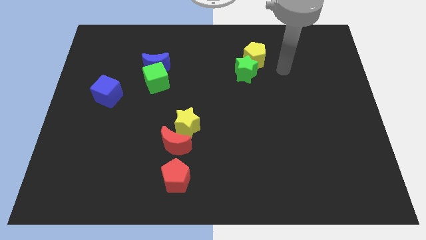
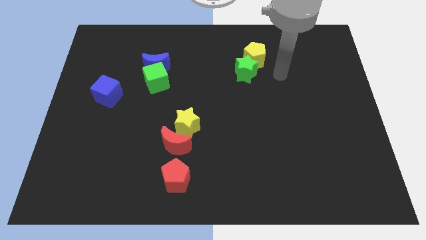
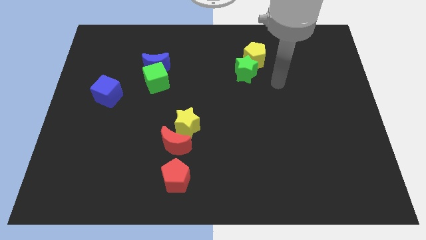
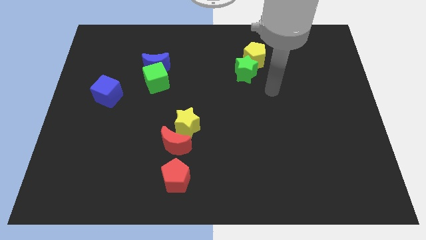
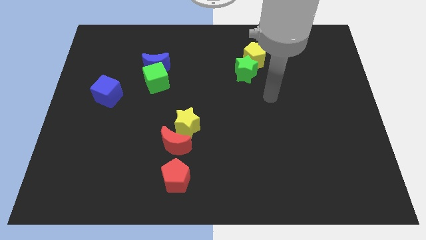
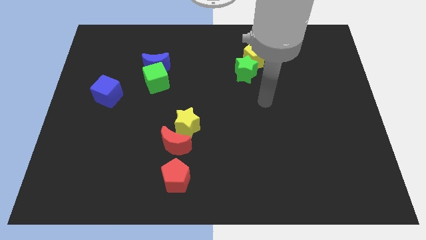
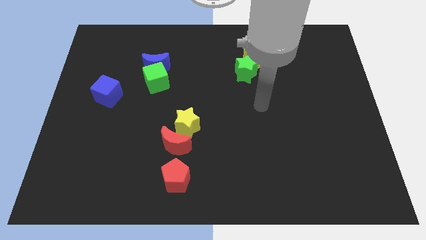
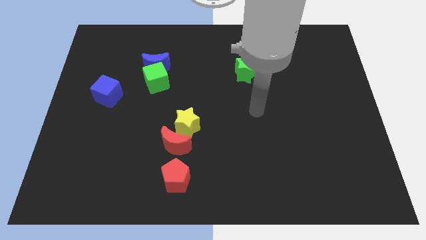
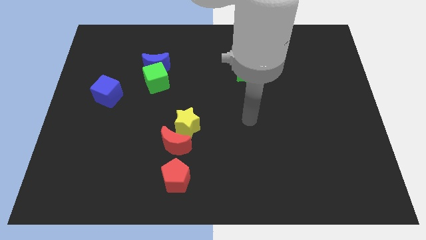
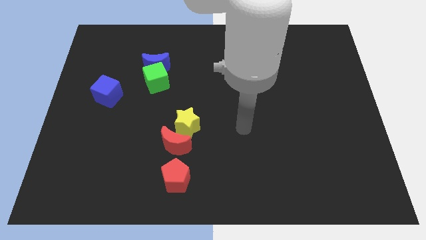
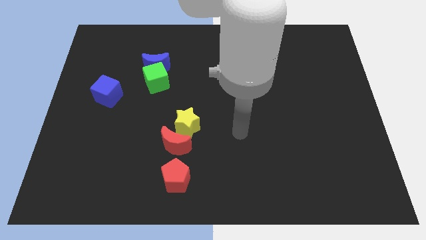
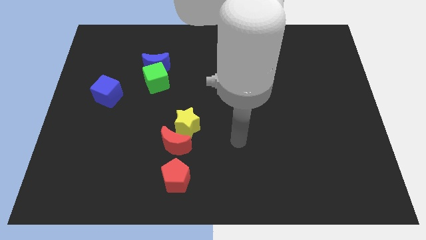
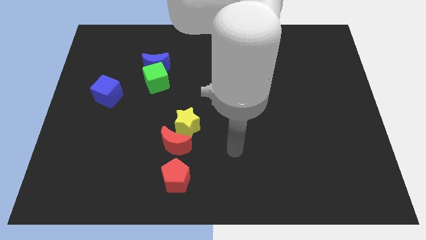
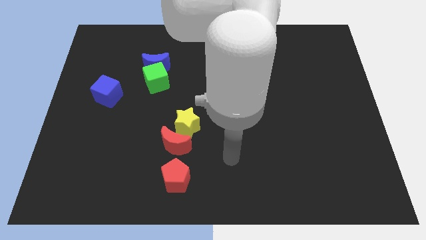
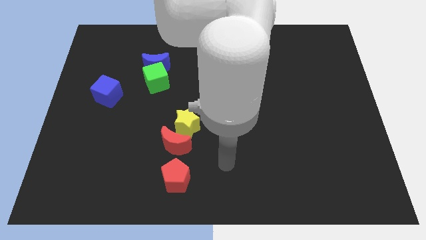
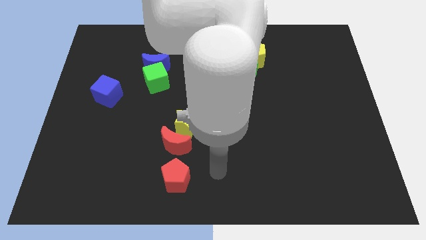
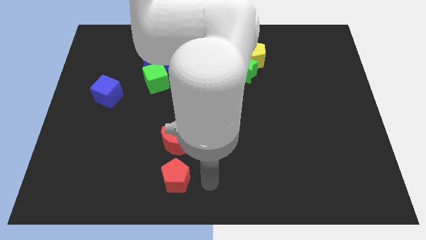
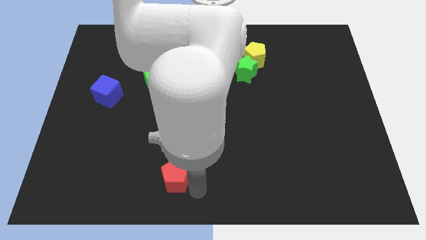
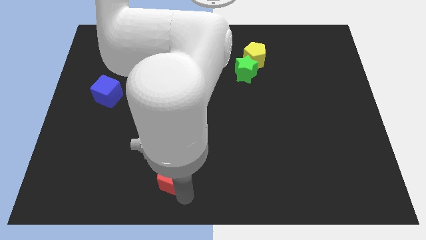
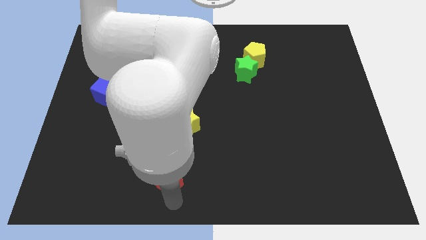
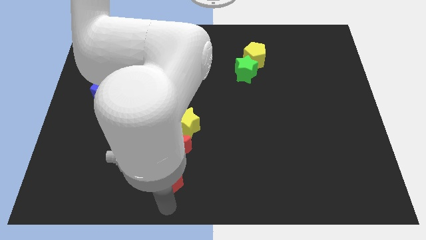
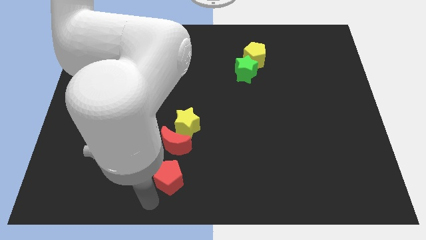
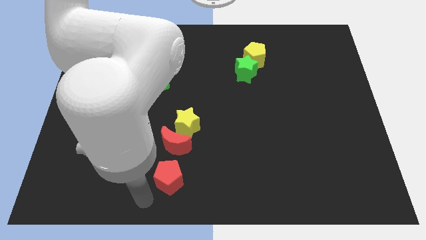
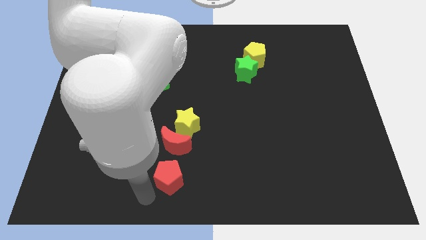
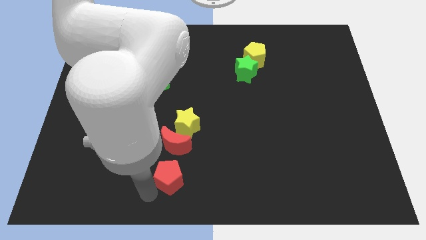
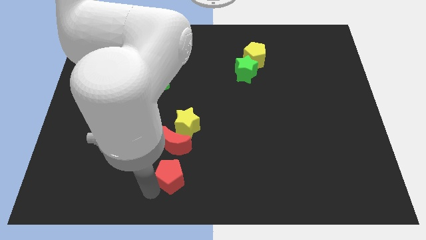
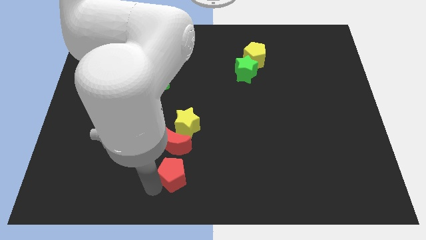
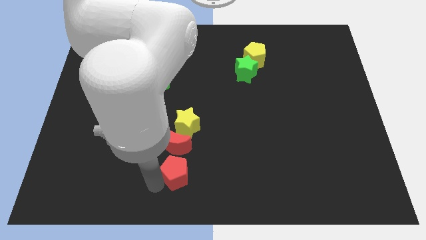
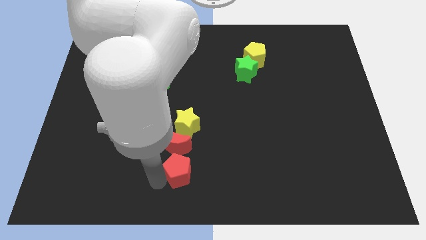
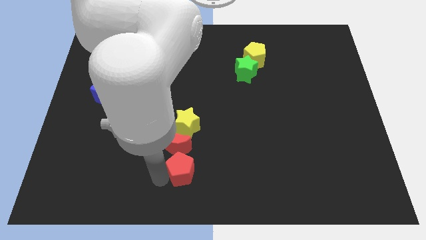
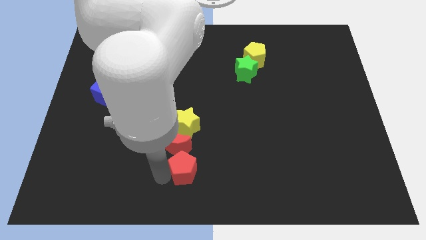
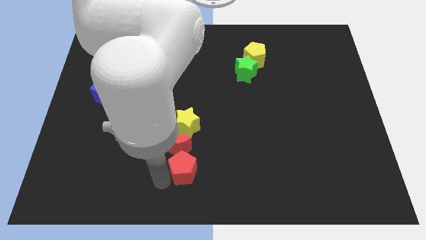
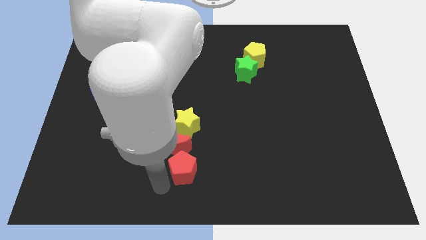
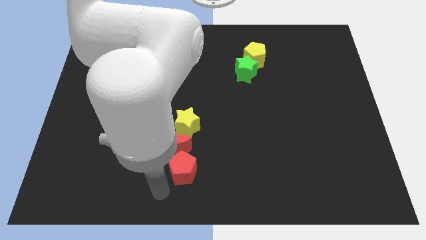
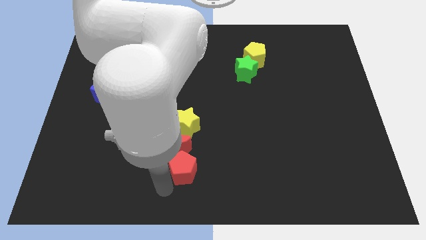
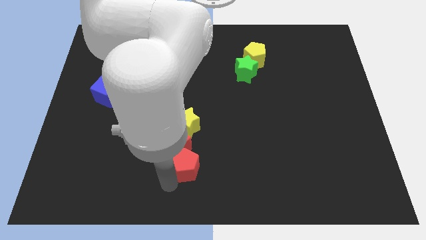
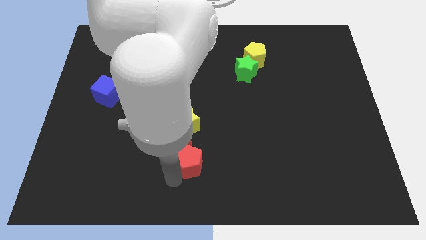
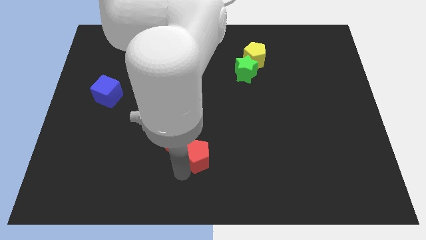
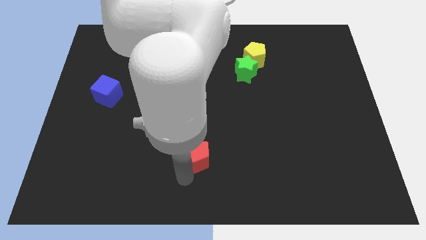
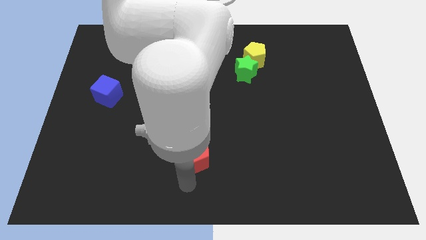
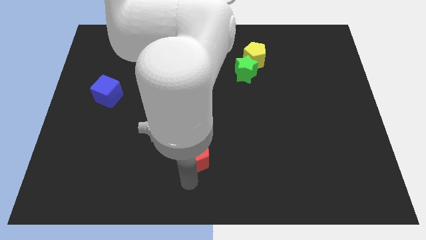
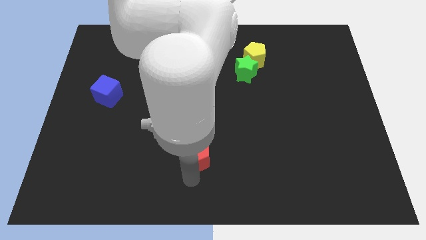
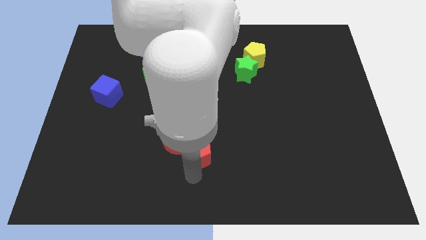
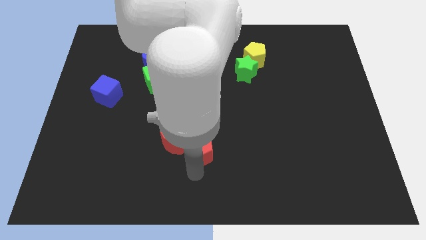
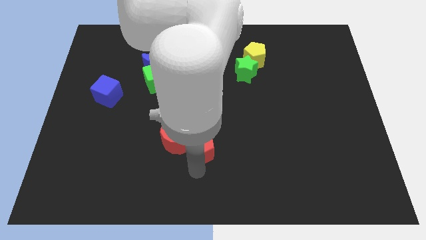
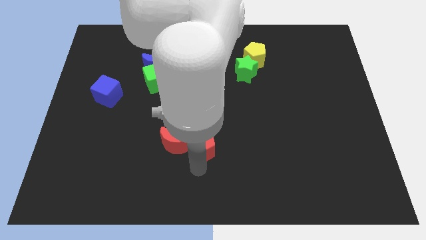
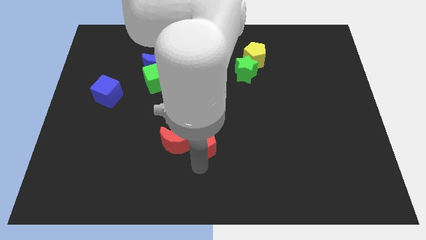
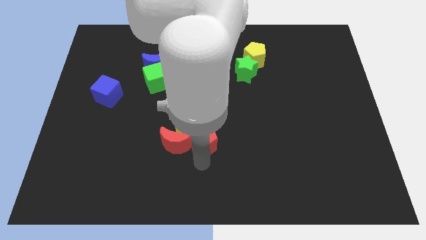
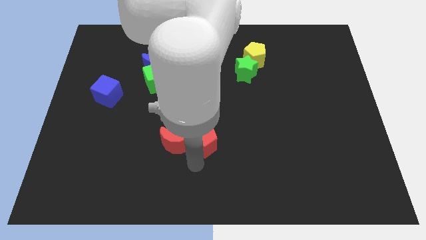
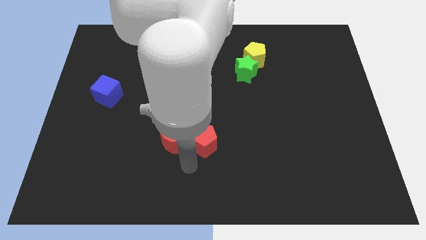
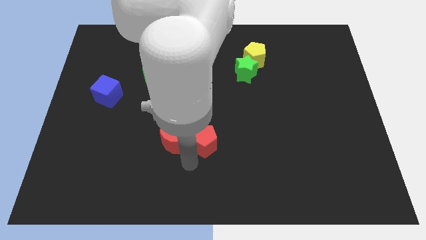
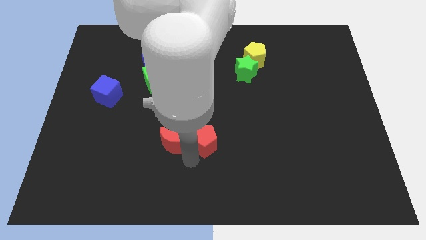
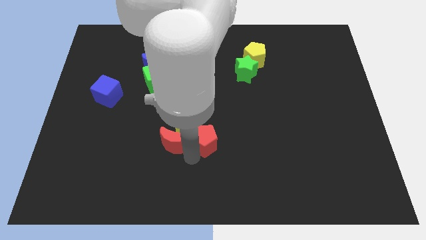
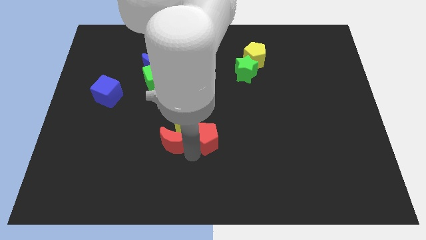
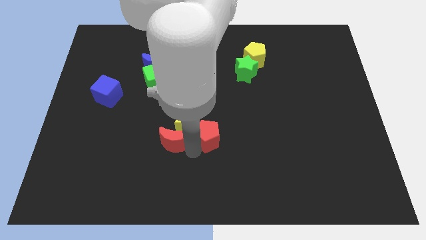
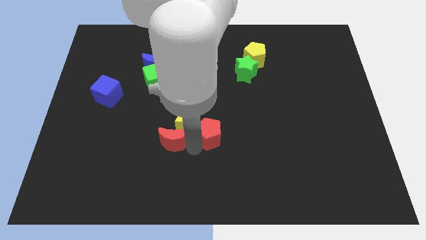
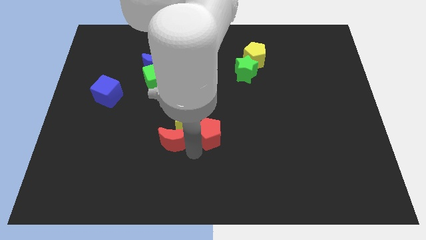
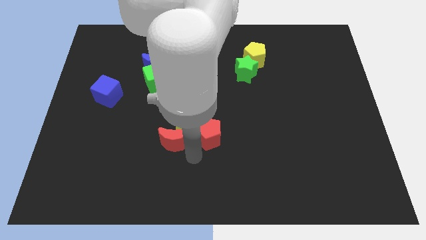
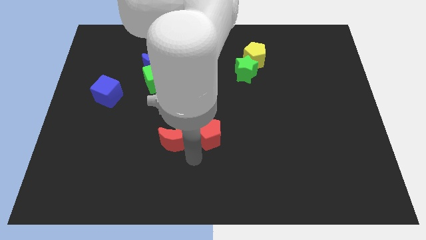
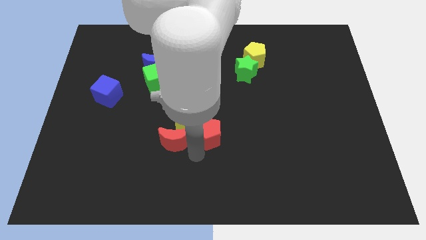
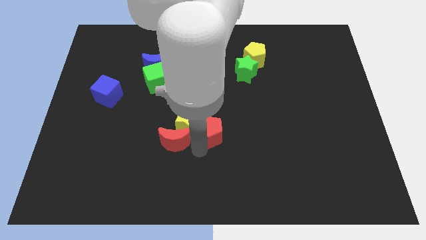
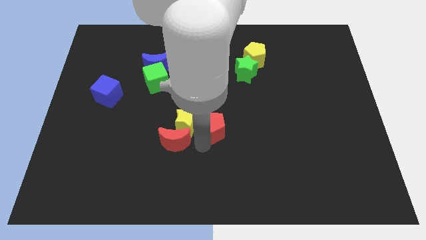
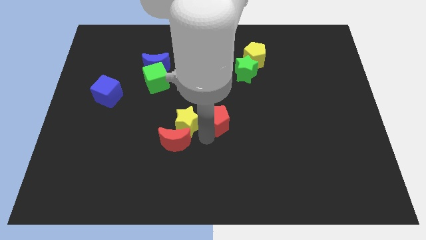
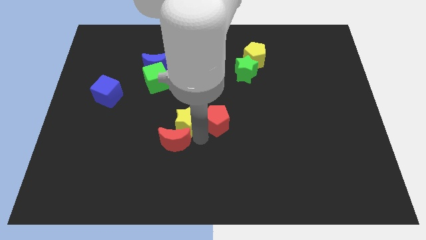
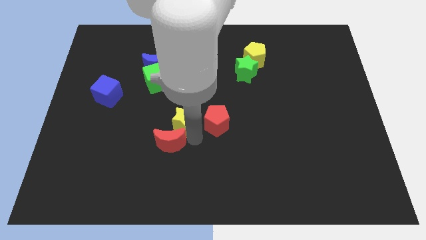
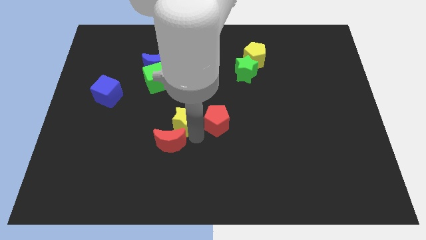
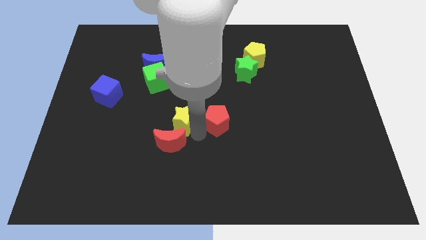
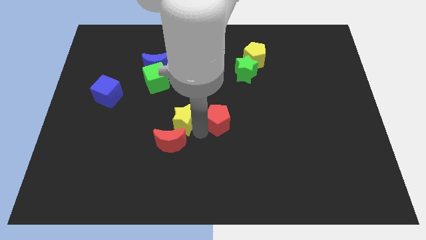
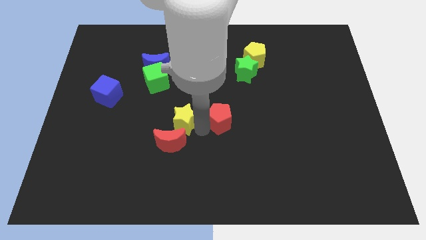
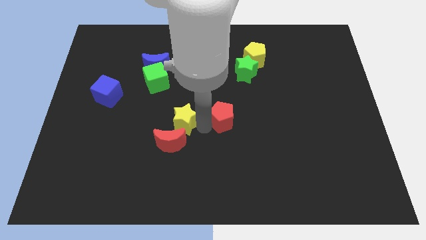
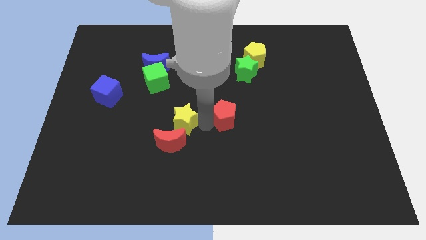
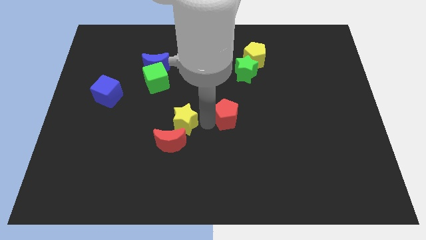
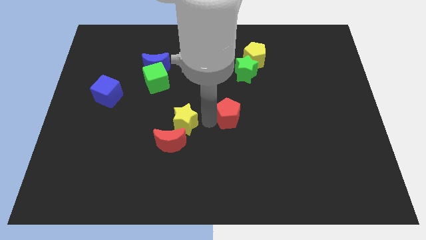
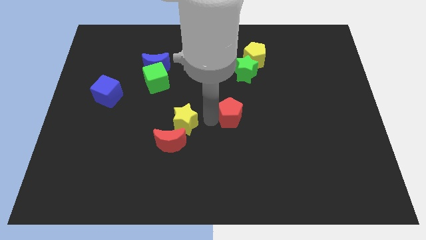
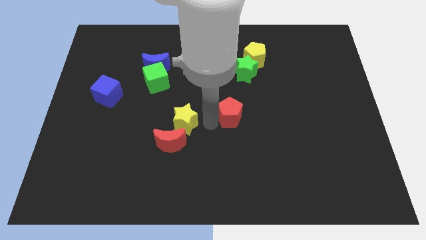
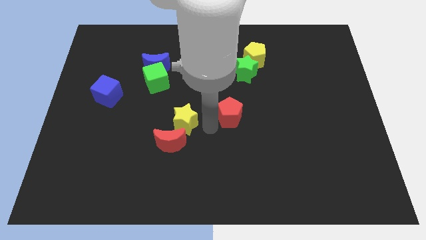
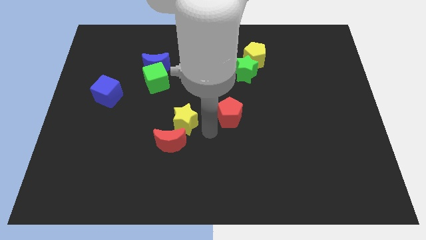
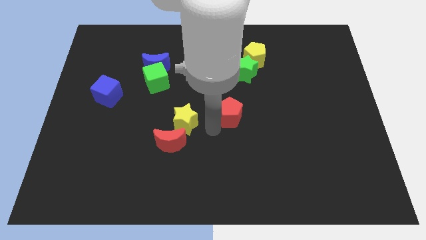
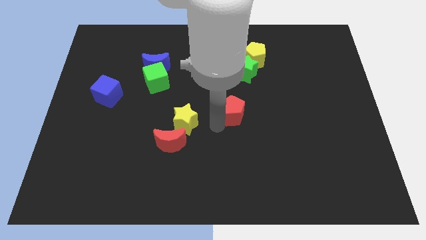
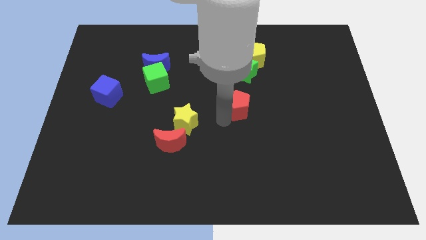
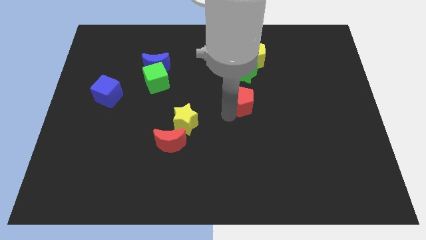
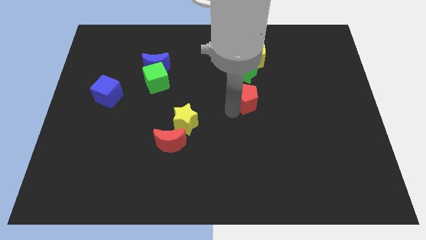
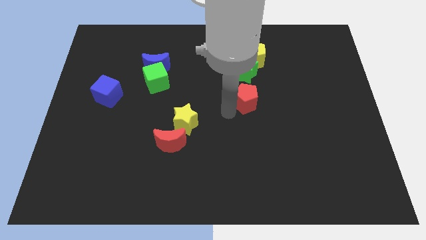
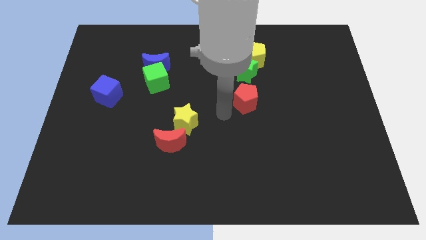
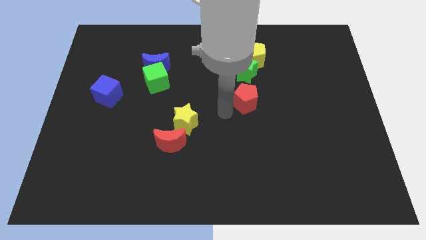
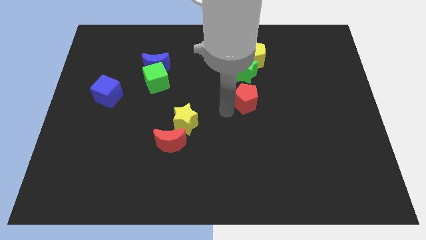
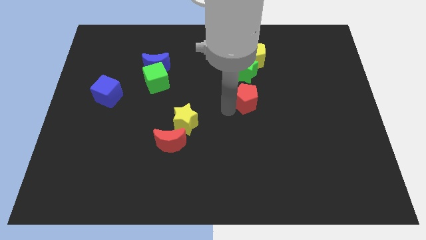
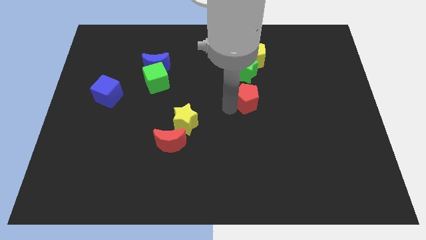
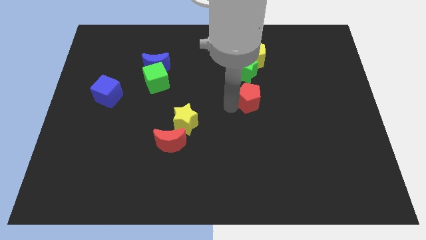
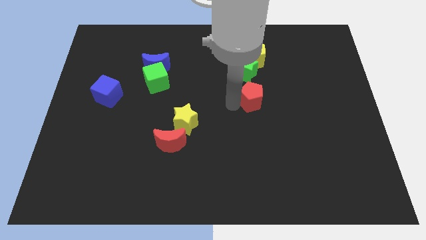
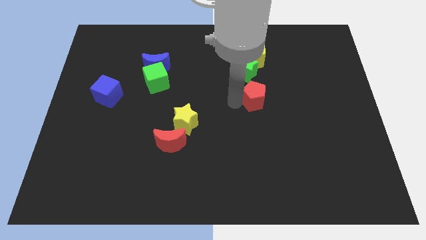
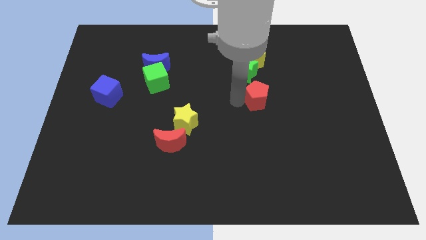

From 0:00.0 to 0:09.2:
move the red pentagon to the bottom right of the green star
